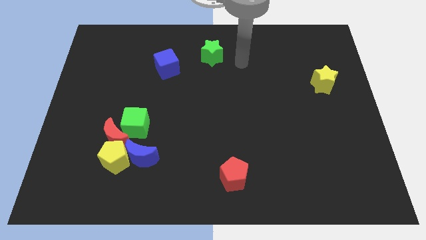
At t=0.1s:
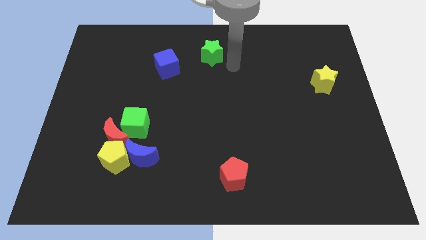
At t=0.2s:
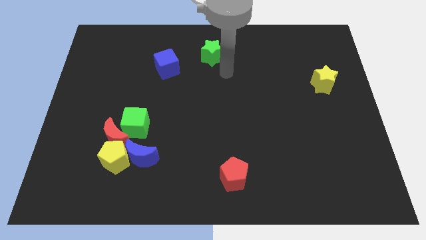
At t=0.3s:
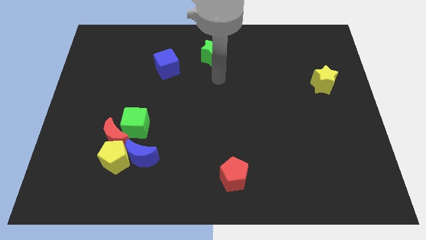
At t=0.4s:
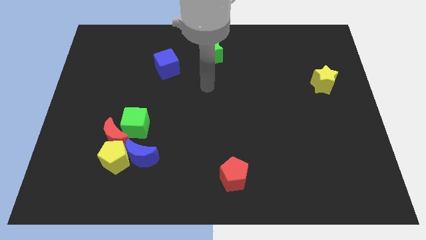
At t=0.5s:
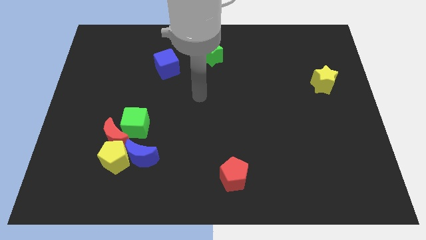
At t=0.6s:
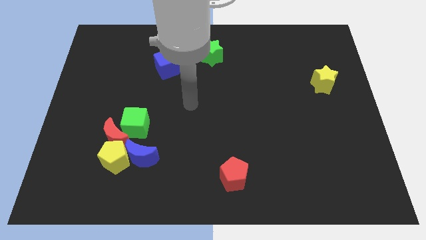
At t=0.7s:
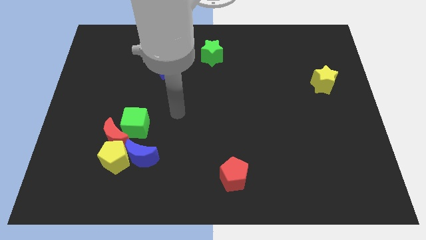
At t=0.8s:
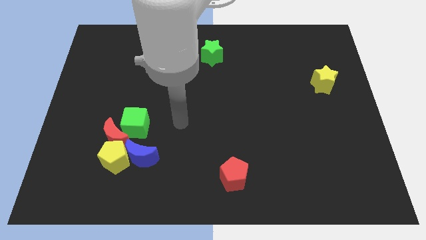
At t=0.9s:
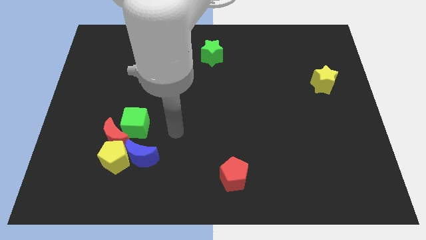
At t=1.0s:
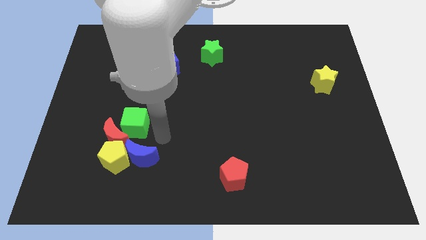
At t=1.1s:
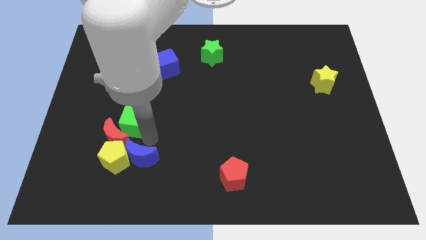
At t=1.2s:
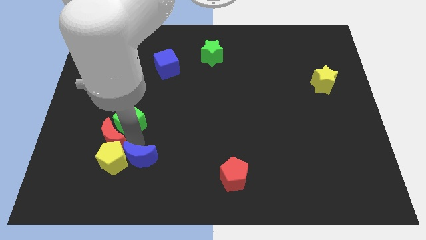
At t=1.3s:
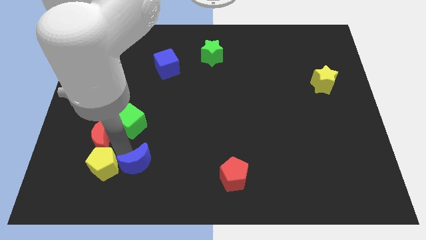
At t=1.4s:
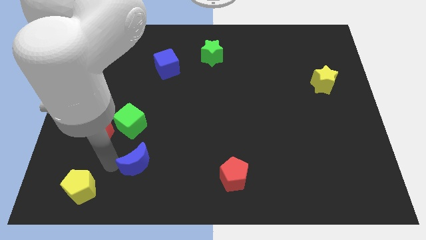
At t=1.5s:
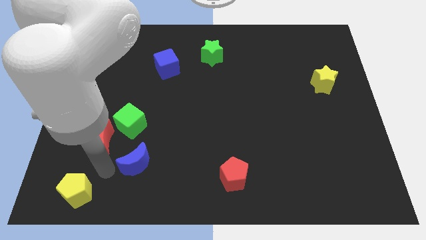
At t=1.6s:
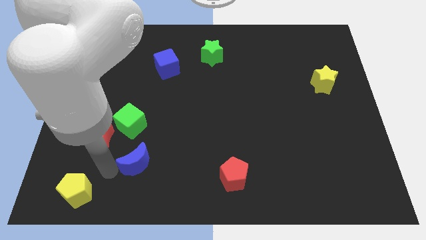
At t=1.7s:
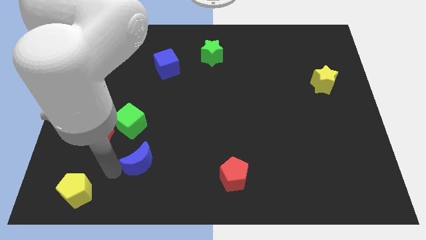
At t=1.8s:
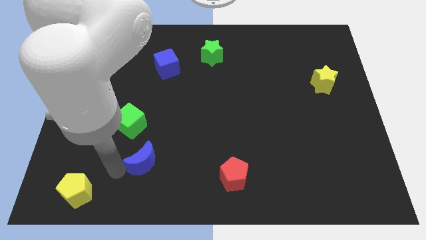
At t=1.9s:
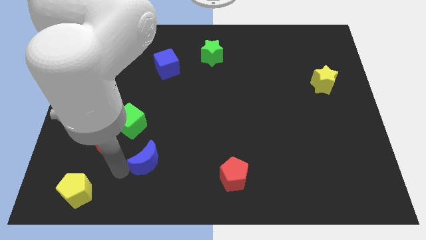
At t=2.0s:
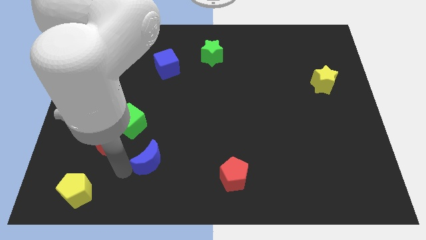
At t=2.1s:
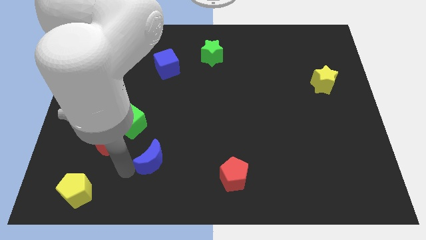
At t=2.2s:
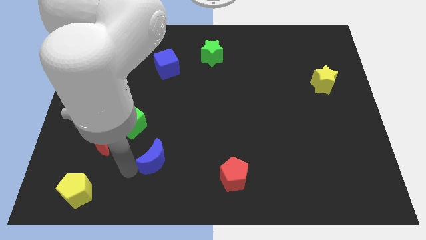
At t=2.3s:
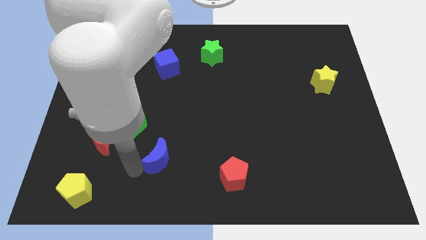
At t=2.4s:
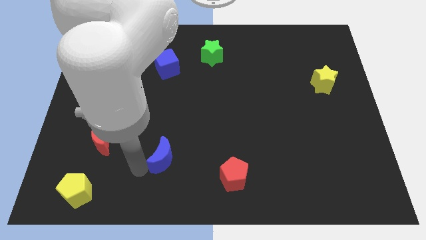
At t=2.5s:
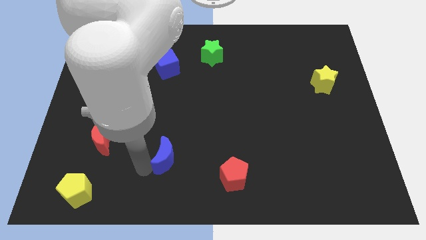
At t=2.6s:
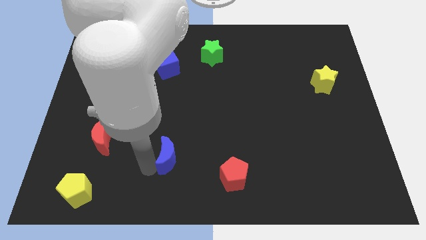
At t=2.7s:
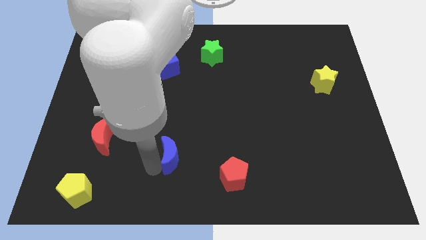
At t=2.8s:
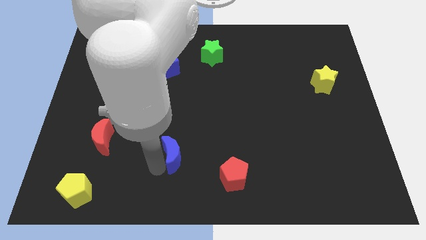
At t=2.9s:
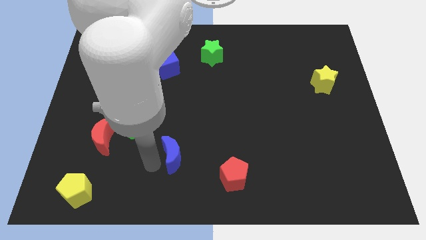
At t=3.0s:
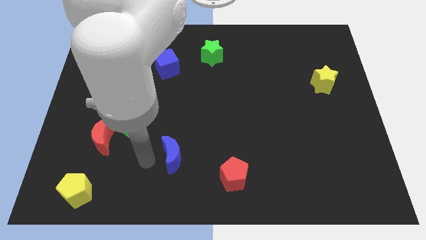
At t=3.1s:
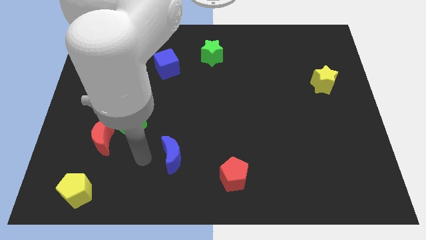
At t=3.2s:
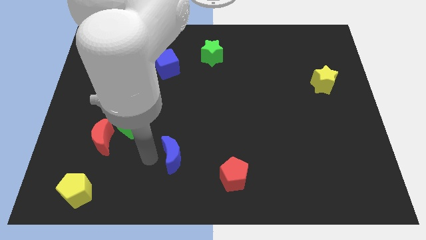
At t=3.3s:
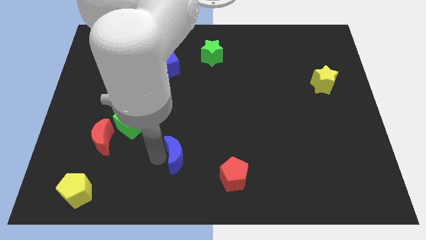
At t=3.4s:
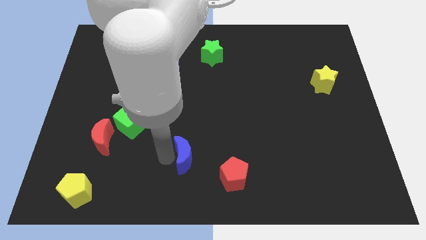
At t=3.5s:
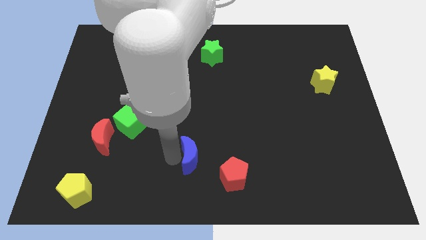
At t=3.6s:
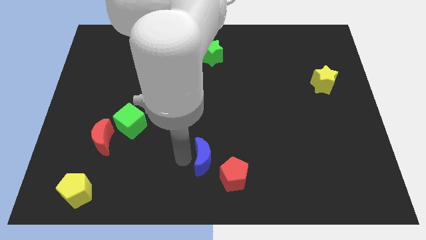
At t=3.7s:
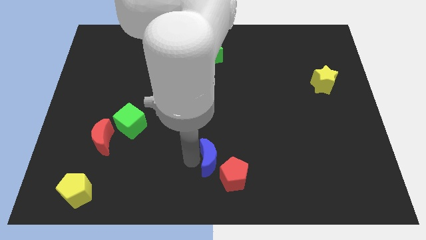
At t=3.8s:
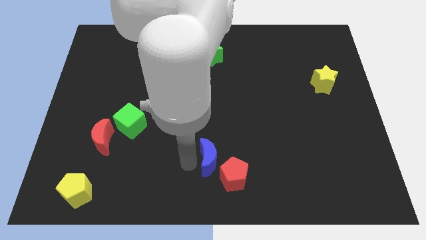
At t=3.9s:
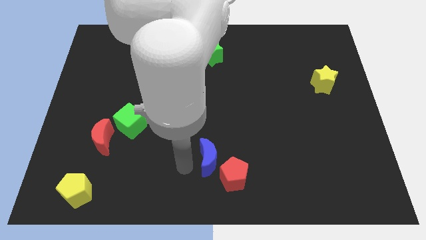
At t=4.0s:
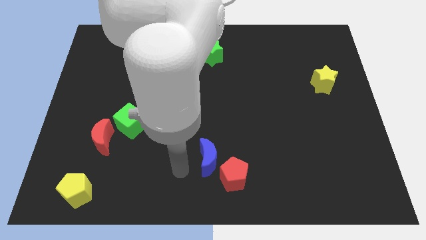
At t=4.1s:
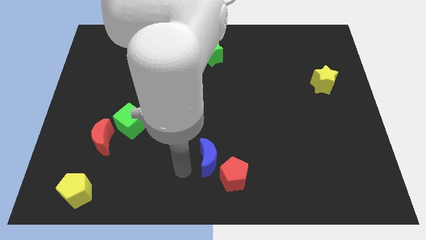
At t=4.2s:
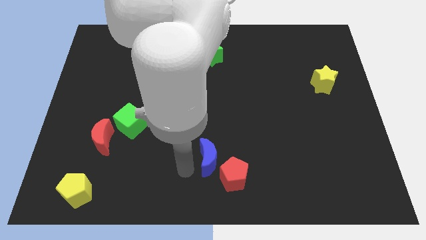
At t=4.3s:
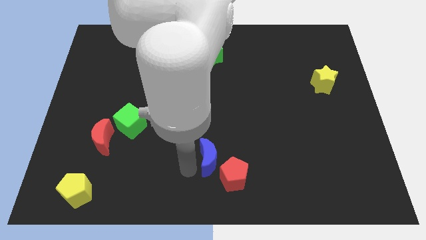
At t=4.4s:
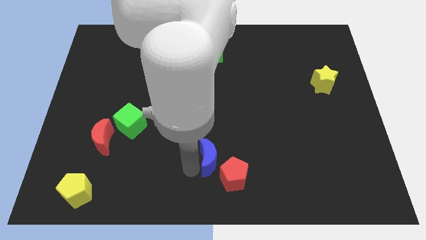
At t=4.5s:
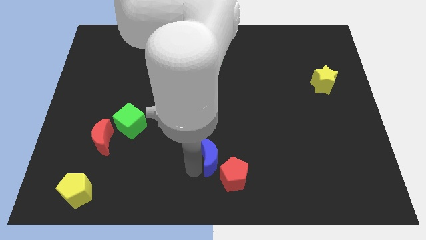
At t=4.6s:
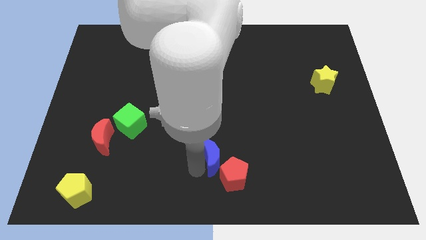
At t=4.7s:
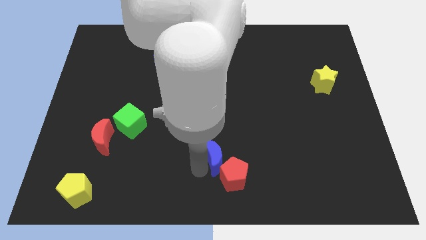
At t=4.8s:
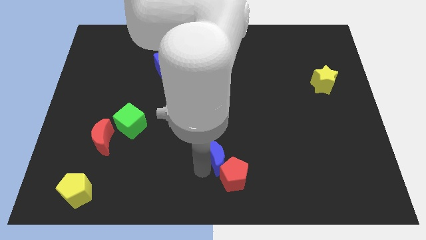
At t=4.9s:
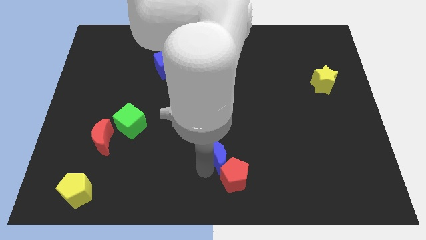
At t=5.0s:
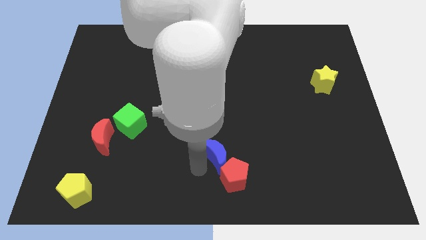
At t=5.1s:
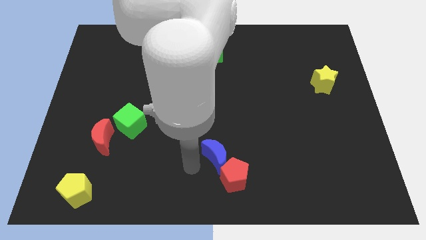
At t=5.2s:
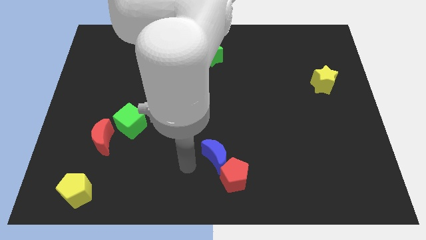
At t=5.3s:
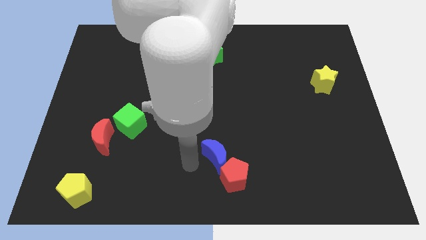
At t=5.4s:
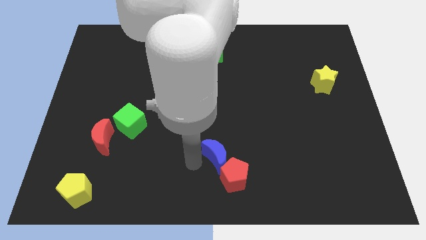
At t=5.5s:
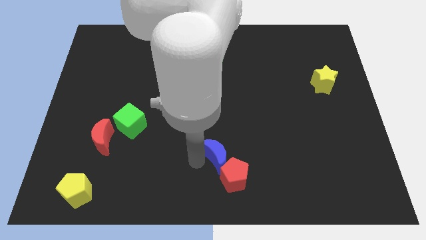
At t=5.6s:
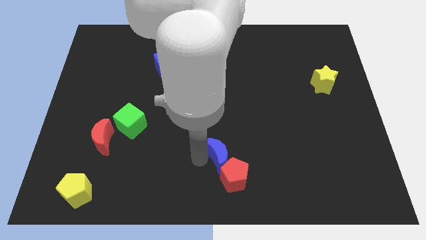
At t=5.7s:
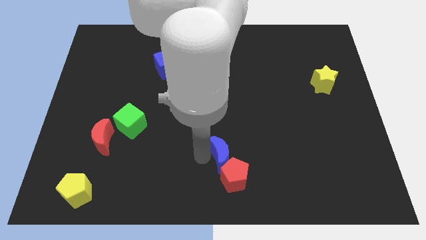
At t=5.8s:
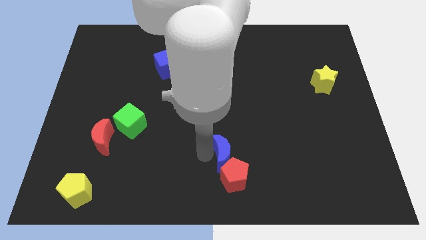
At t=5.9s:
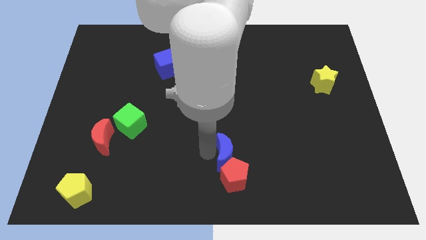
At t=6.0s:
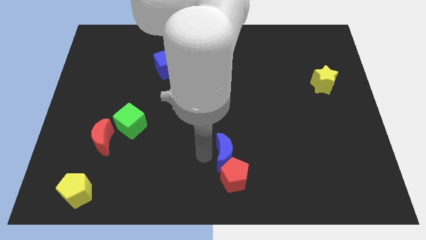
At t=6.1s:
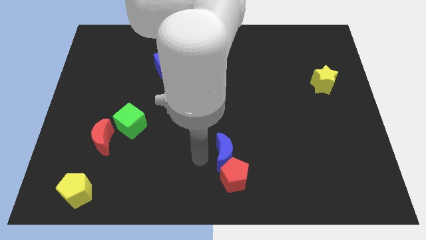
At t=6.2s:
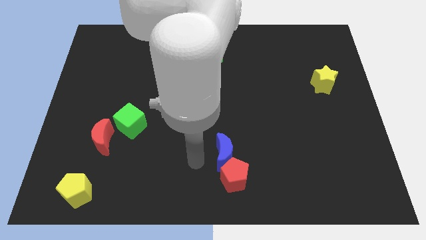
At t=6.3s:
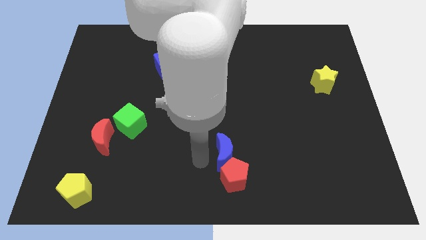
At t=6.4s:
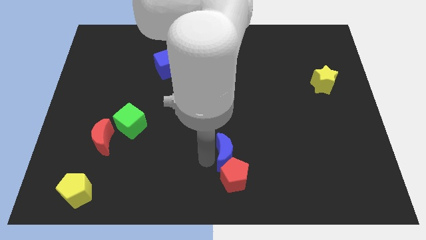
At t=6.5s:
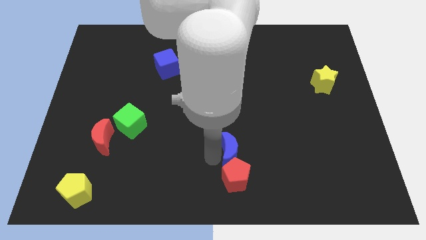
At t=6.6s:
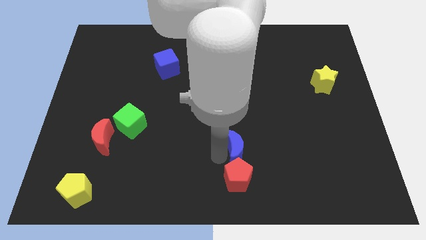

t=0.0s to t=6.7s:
slide the blue moon to the right

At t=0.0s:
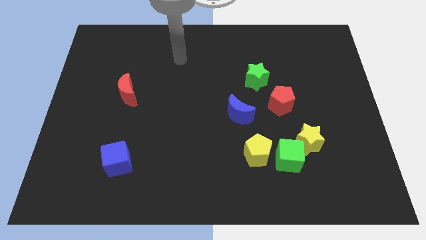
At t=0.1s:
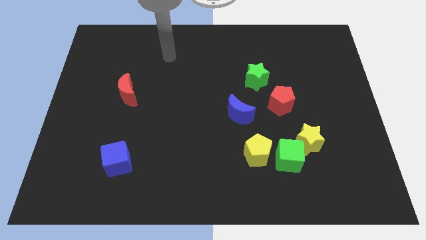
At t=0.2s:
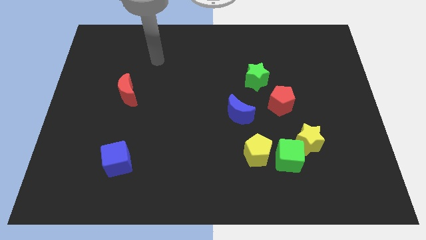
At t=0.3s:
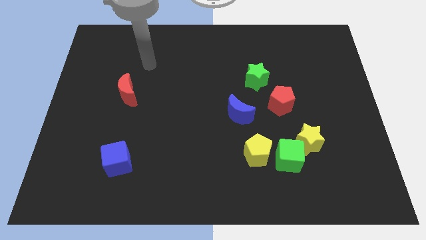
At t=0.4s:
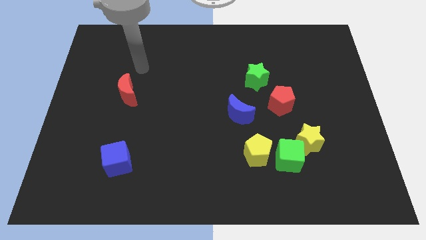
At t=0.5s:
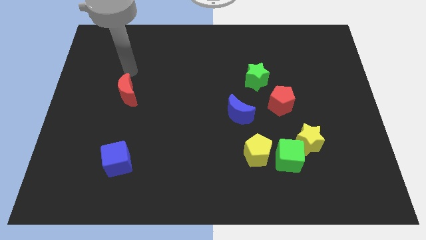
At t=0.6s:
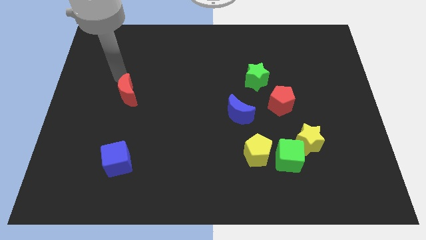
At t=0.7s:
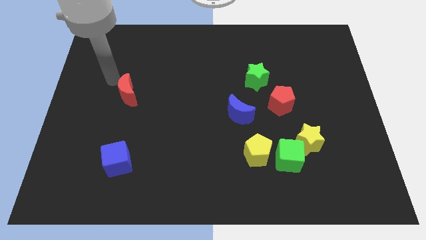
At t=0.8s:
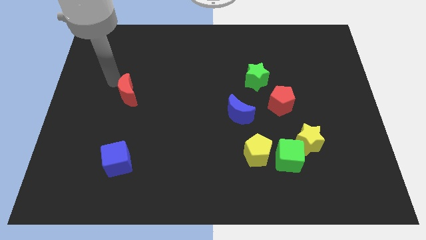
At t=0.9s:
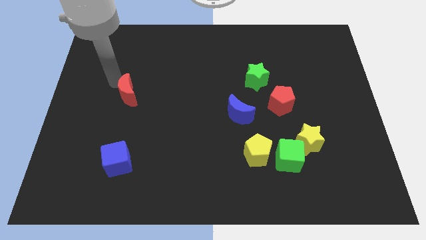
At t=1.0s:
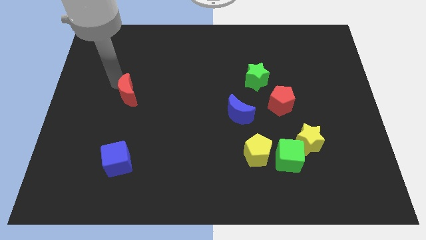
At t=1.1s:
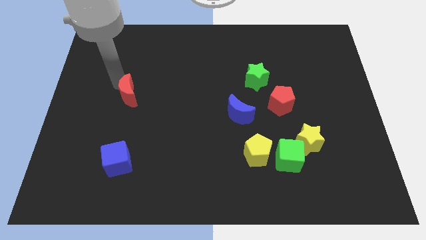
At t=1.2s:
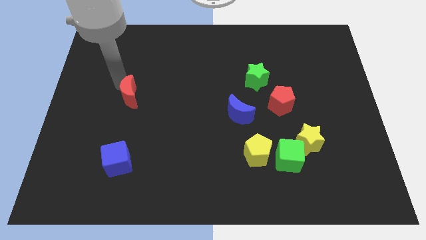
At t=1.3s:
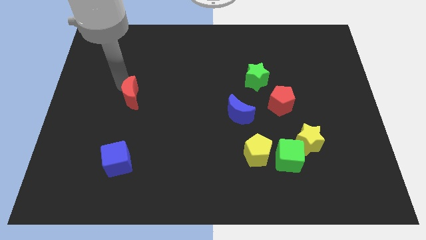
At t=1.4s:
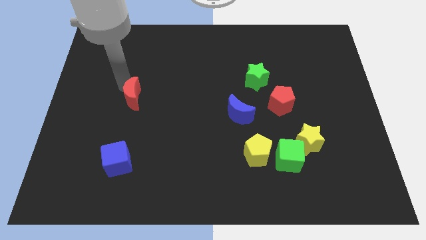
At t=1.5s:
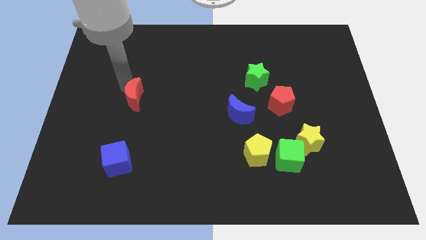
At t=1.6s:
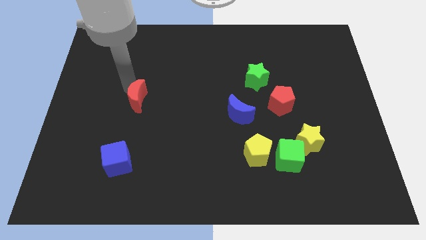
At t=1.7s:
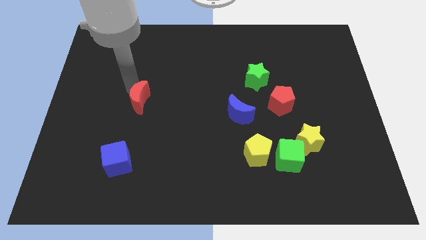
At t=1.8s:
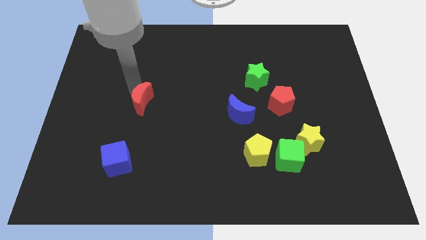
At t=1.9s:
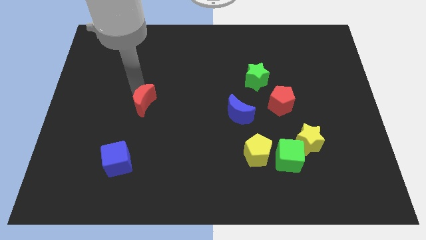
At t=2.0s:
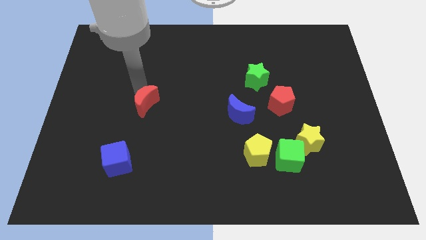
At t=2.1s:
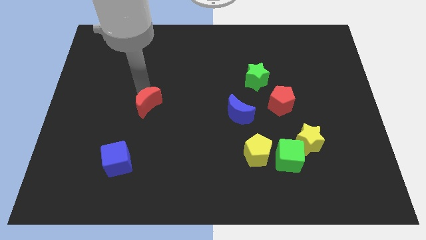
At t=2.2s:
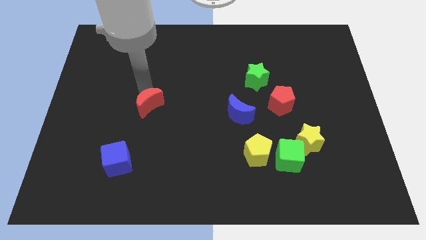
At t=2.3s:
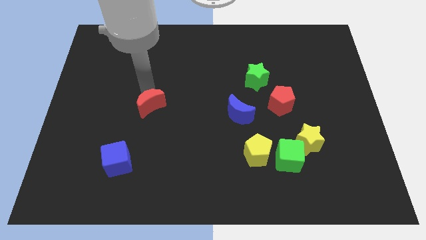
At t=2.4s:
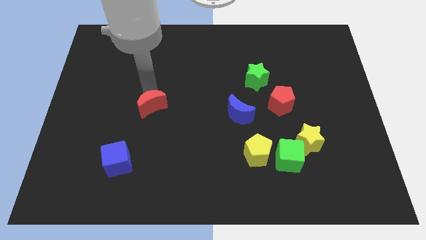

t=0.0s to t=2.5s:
slightly move the red moon diagonally down and to the right
